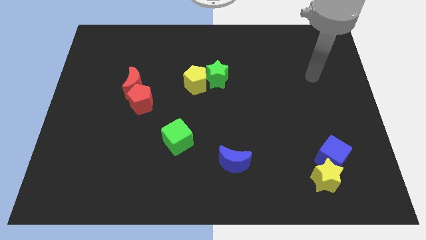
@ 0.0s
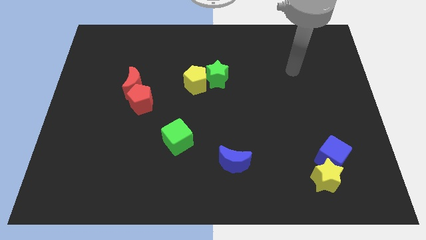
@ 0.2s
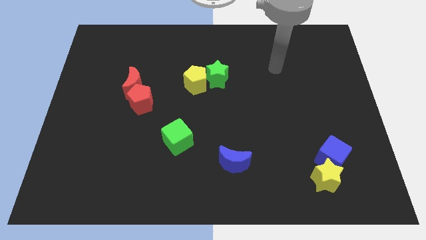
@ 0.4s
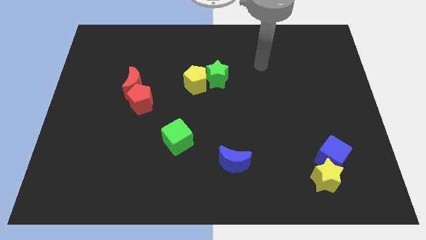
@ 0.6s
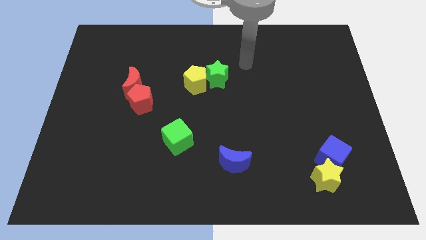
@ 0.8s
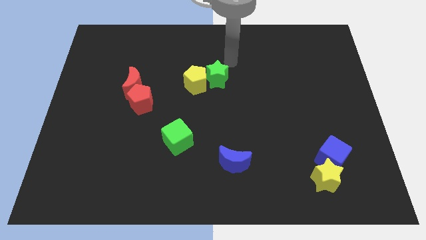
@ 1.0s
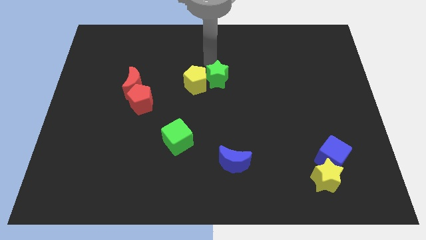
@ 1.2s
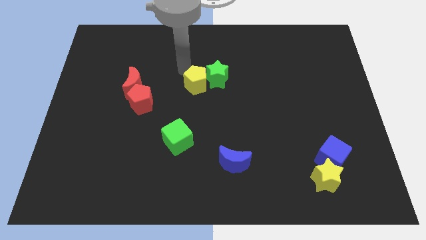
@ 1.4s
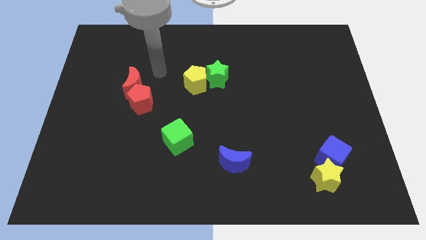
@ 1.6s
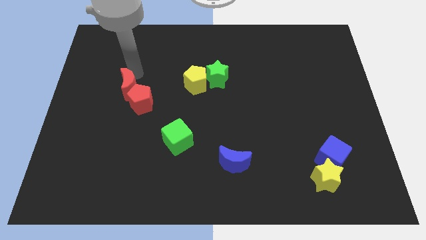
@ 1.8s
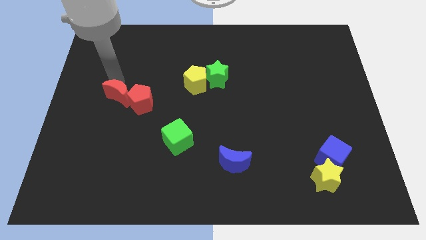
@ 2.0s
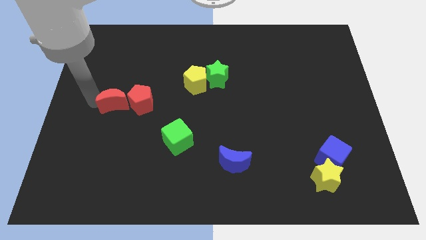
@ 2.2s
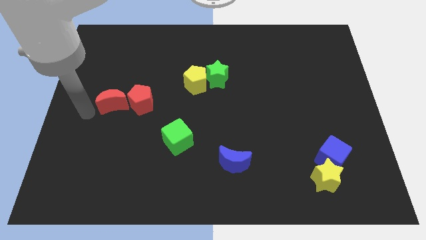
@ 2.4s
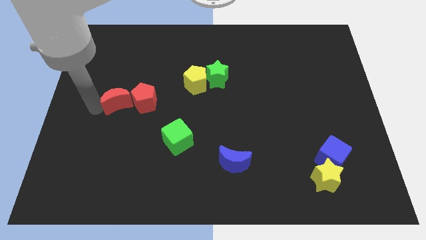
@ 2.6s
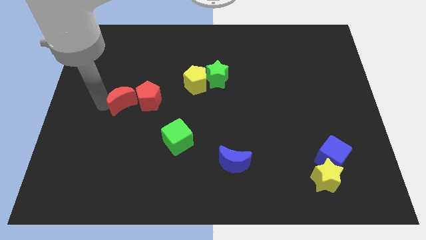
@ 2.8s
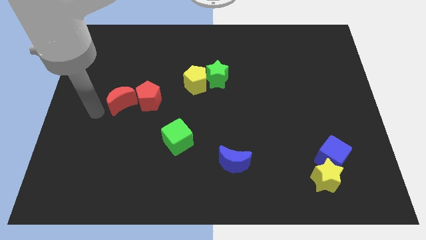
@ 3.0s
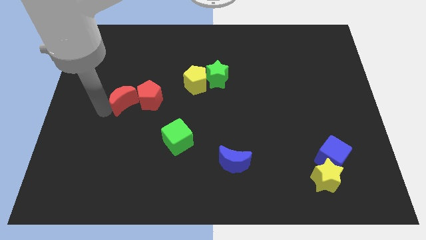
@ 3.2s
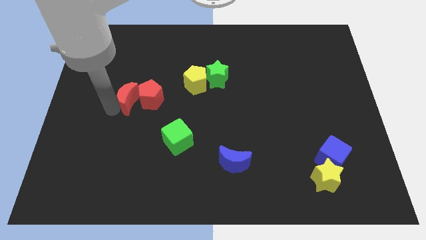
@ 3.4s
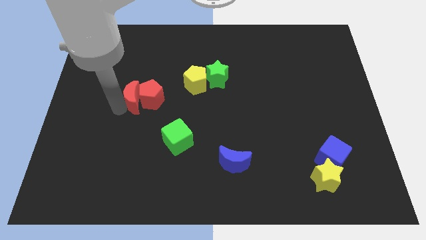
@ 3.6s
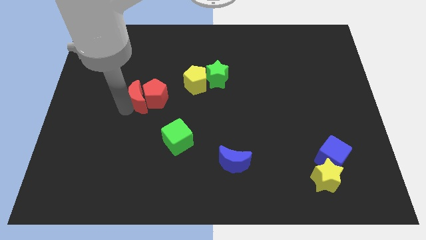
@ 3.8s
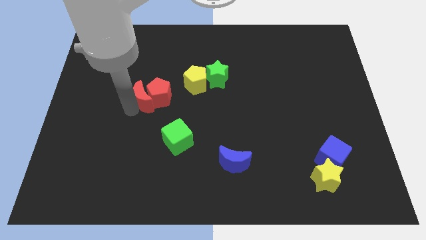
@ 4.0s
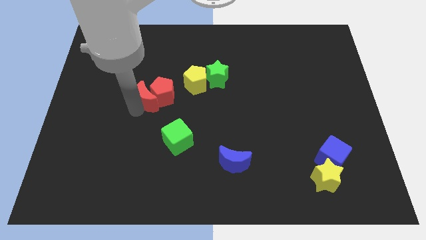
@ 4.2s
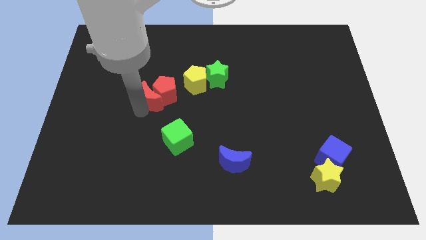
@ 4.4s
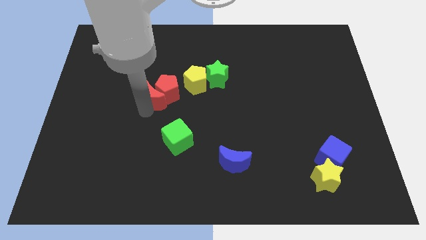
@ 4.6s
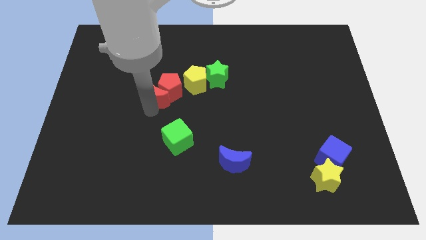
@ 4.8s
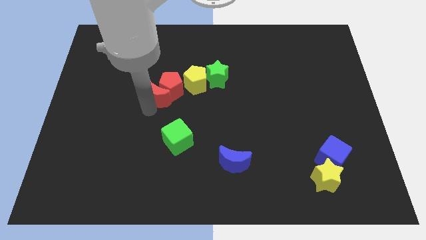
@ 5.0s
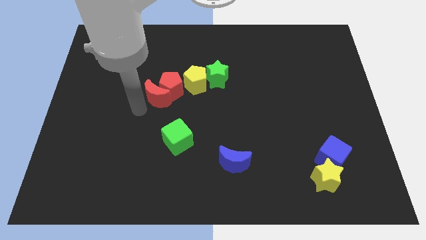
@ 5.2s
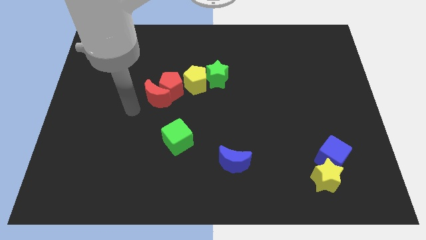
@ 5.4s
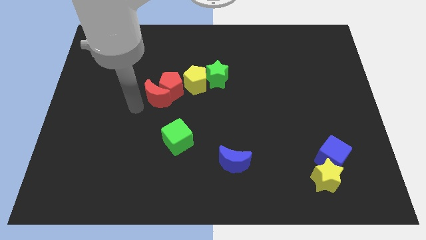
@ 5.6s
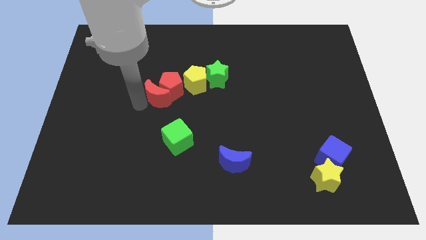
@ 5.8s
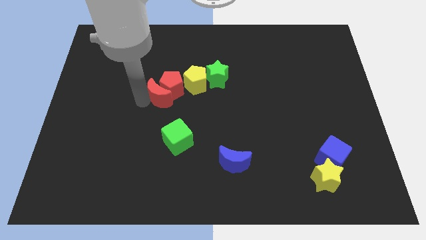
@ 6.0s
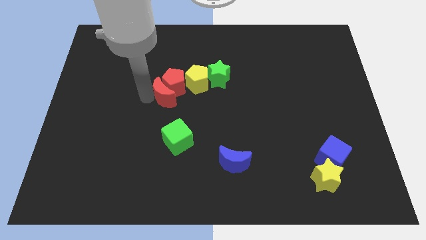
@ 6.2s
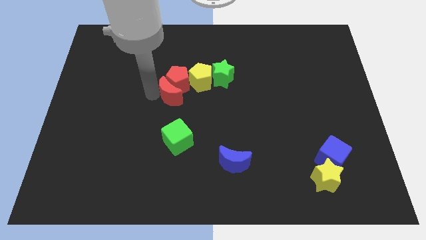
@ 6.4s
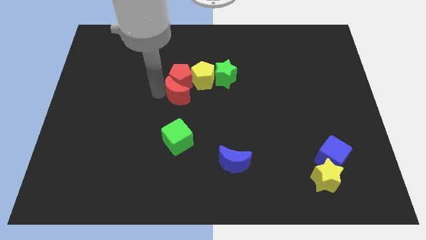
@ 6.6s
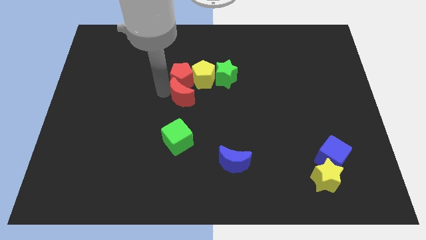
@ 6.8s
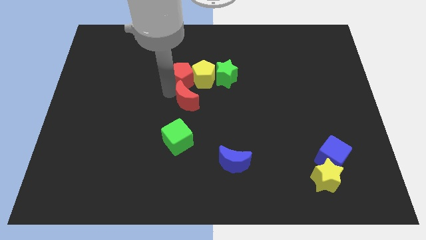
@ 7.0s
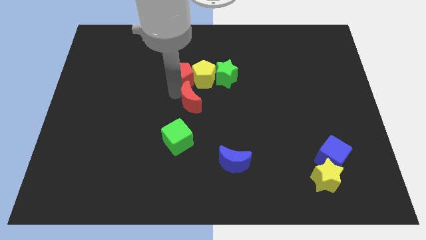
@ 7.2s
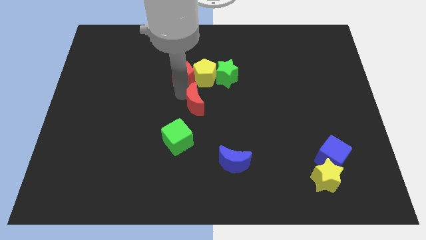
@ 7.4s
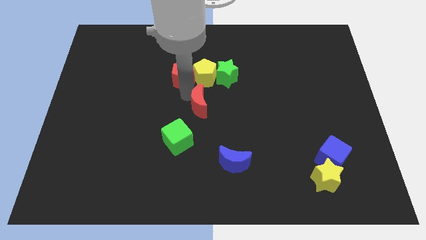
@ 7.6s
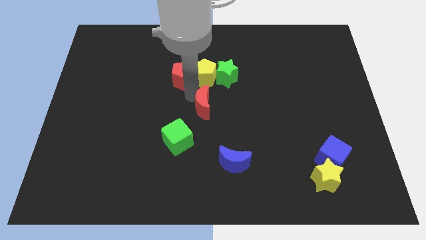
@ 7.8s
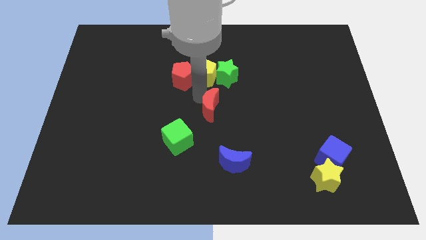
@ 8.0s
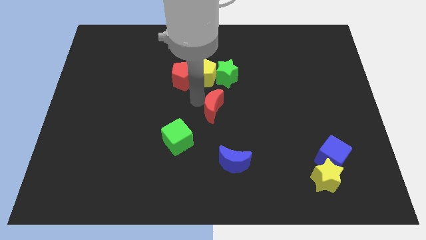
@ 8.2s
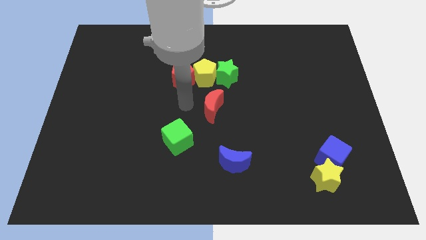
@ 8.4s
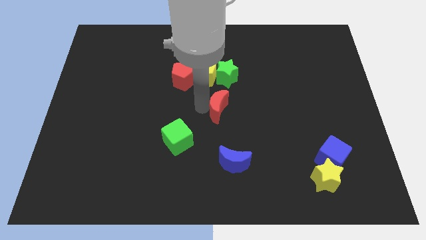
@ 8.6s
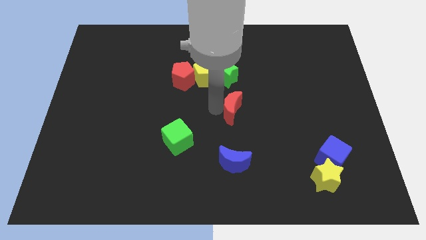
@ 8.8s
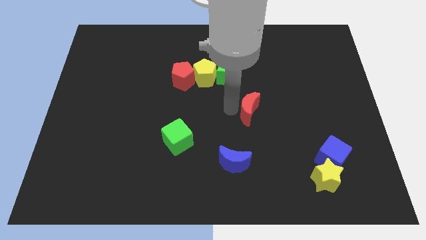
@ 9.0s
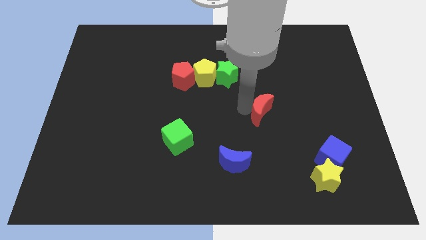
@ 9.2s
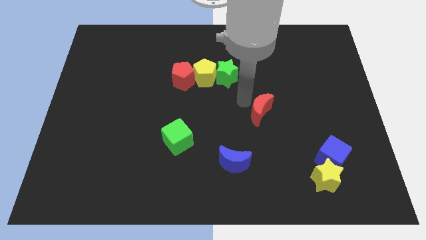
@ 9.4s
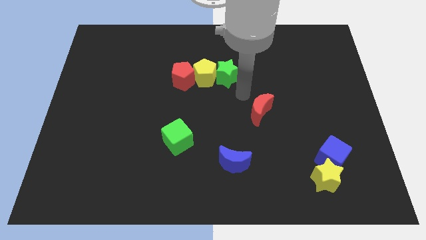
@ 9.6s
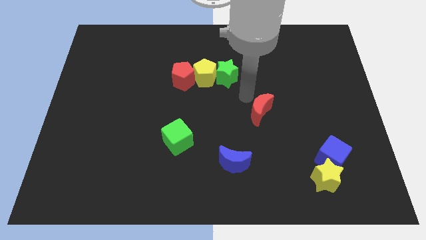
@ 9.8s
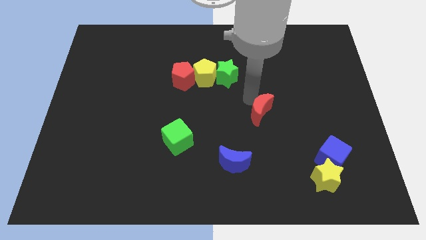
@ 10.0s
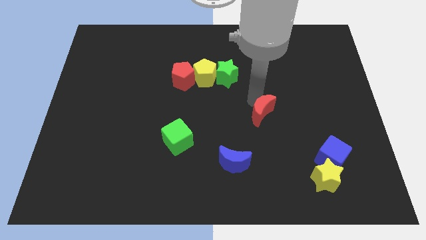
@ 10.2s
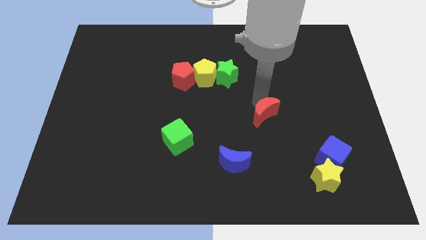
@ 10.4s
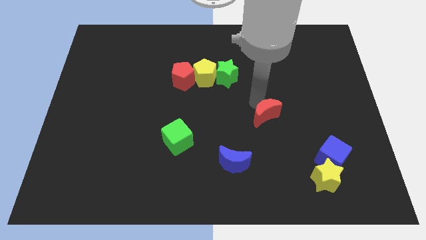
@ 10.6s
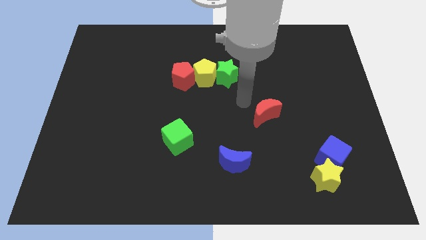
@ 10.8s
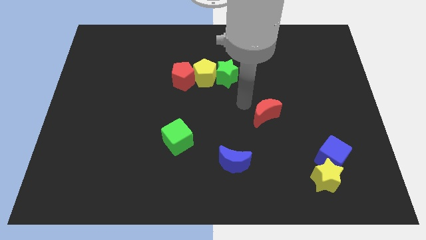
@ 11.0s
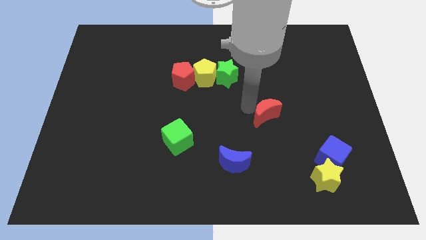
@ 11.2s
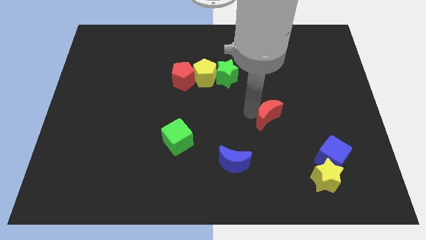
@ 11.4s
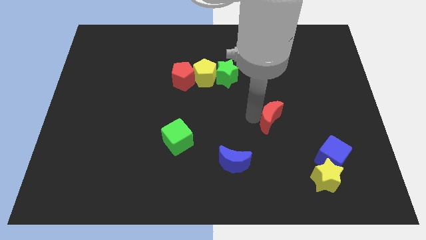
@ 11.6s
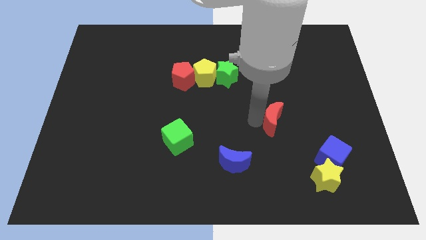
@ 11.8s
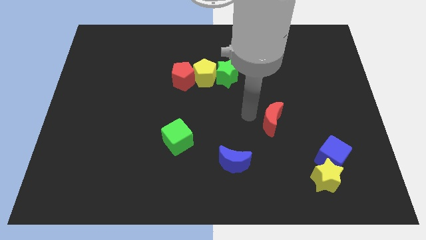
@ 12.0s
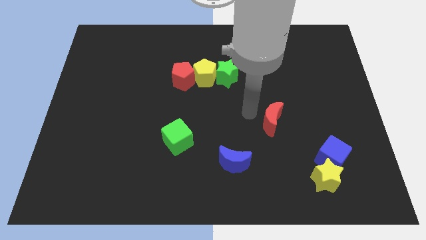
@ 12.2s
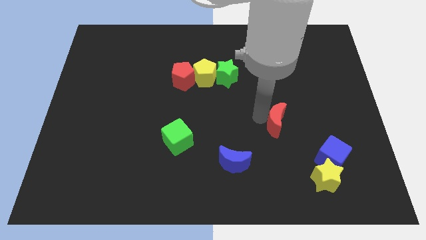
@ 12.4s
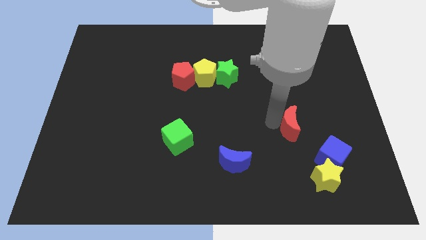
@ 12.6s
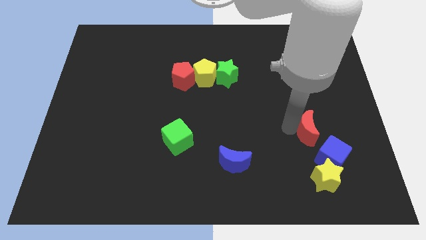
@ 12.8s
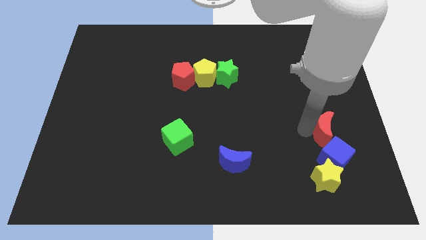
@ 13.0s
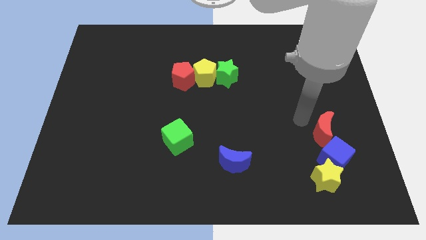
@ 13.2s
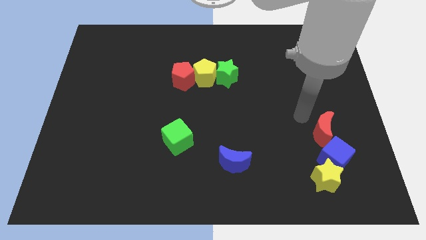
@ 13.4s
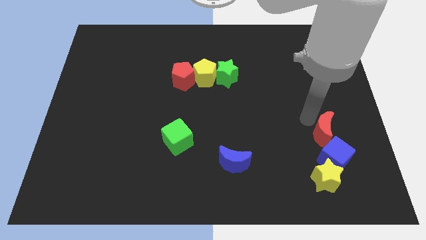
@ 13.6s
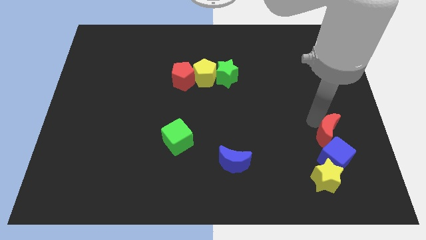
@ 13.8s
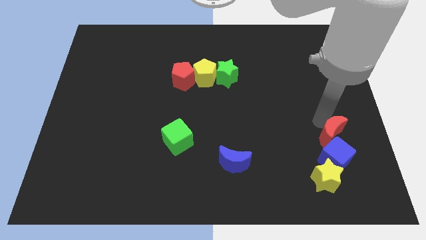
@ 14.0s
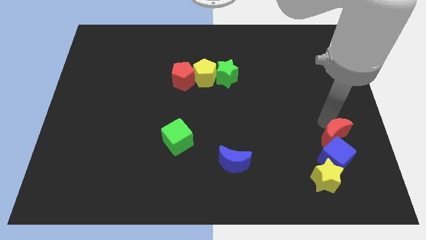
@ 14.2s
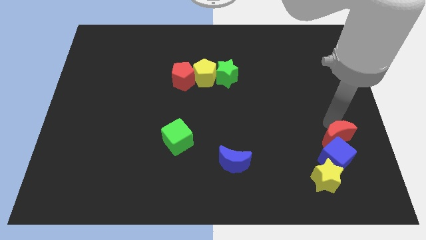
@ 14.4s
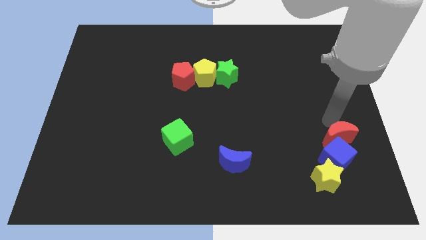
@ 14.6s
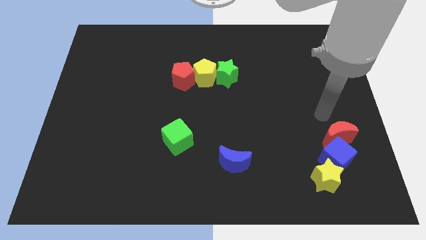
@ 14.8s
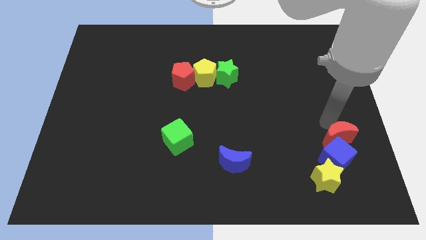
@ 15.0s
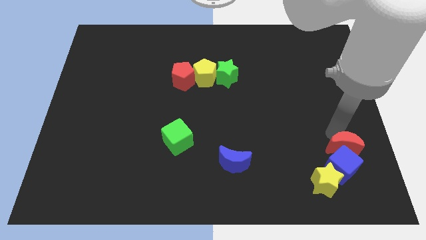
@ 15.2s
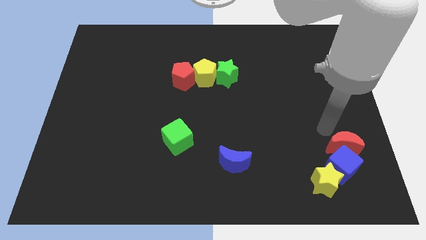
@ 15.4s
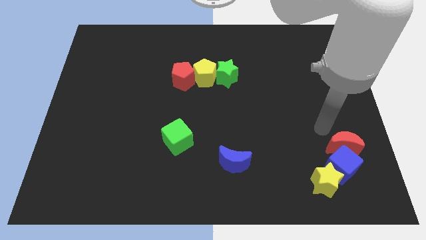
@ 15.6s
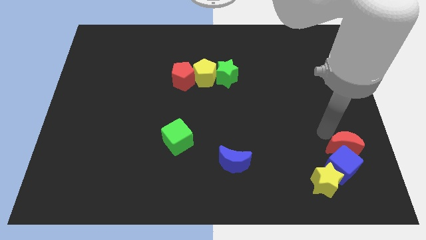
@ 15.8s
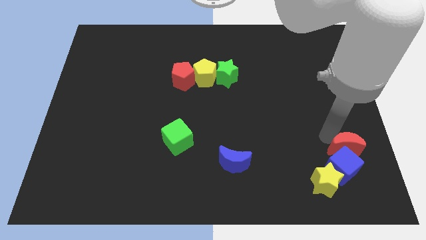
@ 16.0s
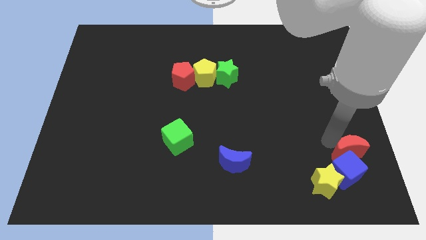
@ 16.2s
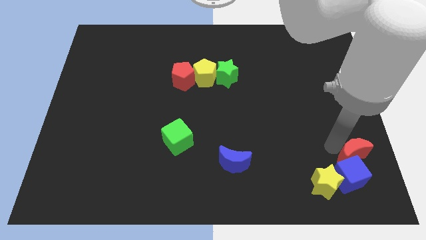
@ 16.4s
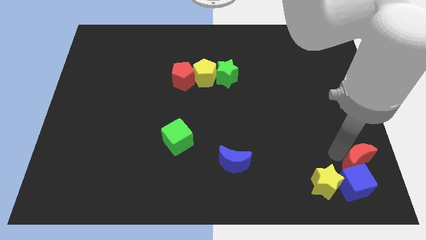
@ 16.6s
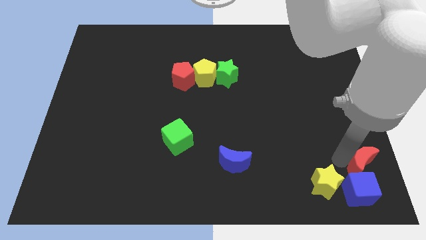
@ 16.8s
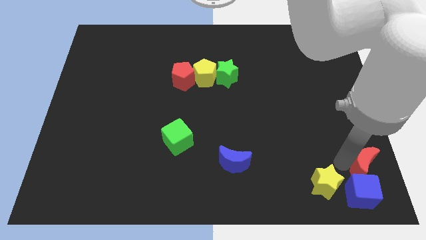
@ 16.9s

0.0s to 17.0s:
slide the red moon to the bottom right of the board
